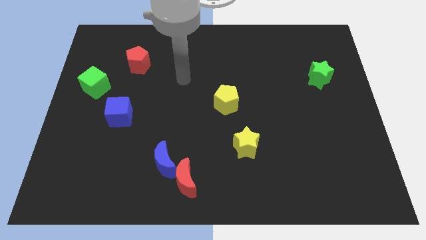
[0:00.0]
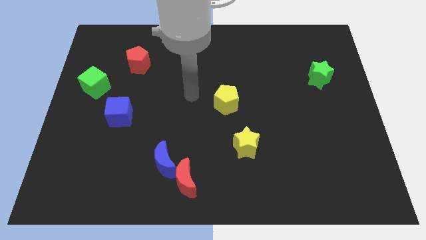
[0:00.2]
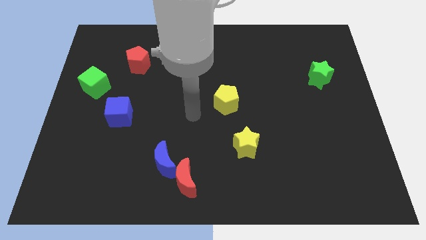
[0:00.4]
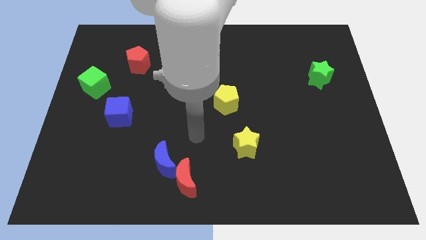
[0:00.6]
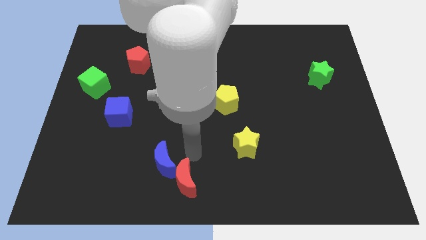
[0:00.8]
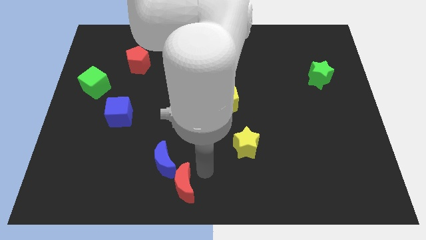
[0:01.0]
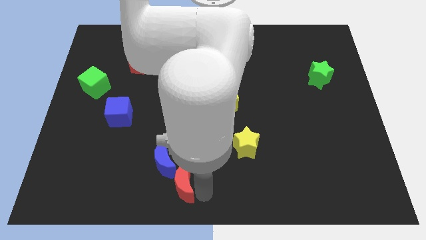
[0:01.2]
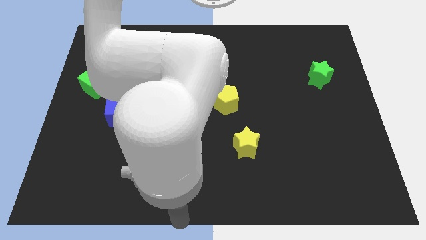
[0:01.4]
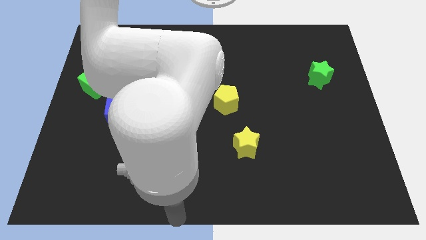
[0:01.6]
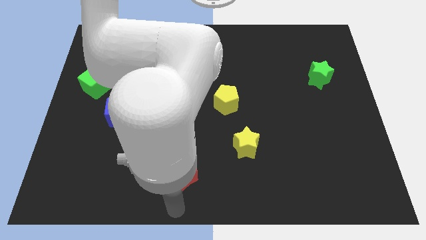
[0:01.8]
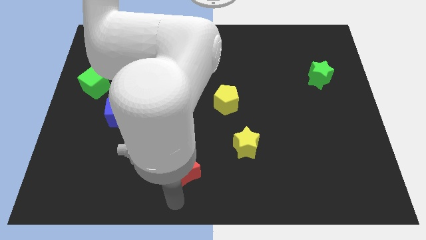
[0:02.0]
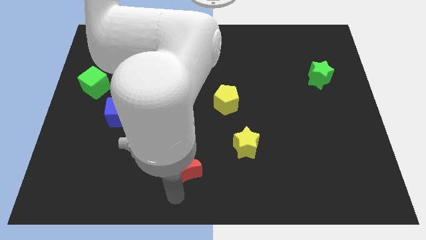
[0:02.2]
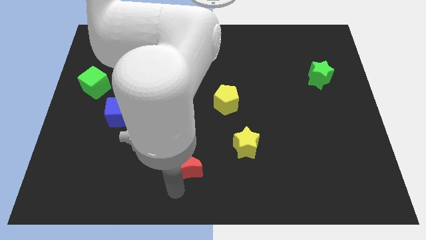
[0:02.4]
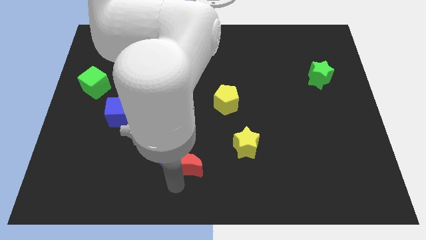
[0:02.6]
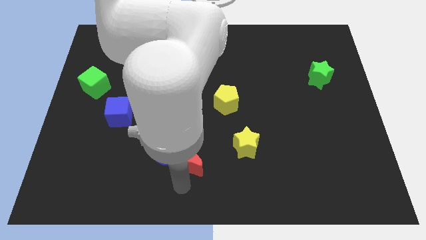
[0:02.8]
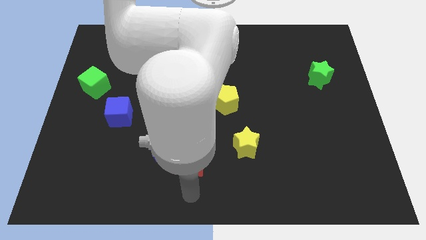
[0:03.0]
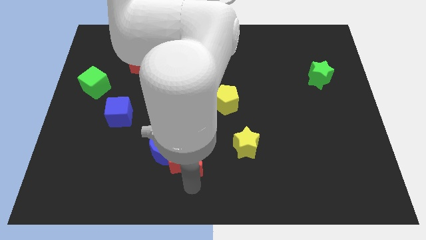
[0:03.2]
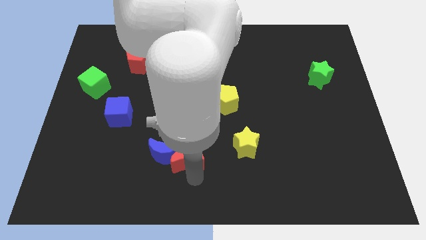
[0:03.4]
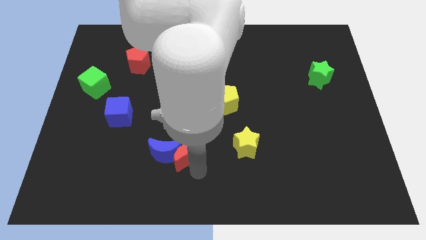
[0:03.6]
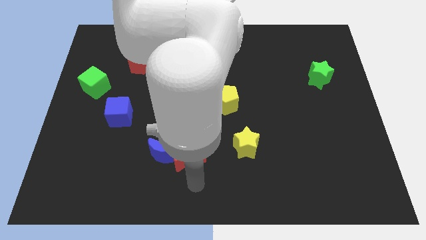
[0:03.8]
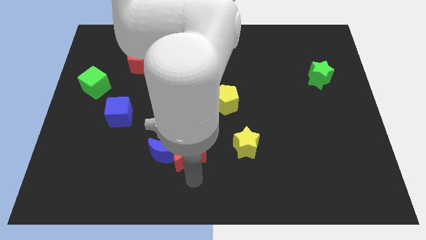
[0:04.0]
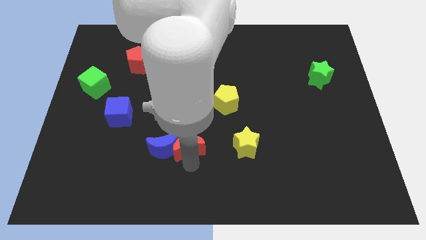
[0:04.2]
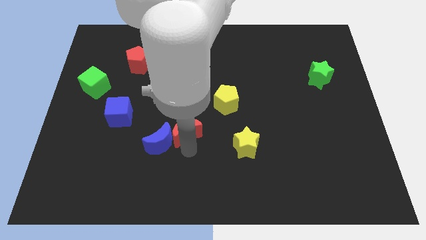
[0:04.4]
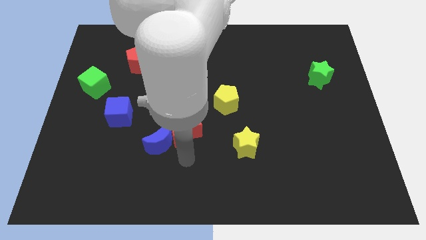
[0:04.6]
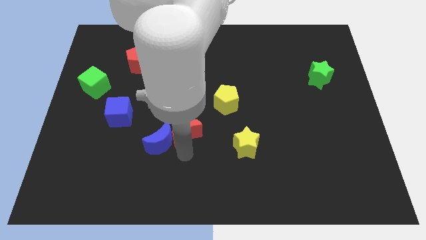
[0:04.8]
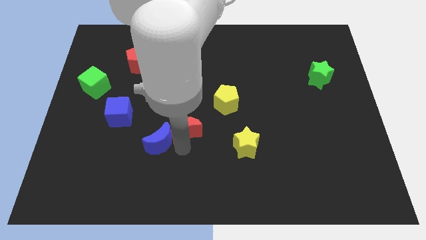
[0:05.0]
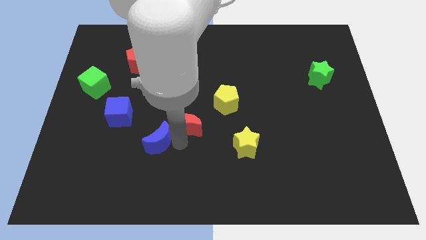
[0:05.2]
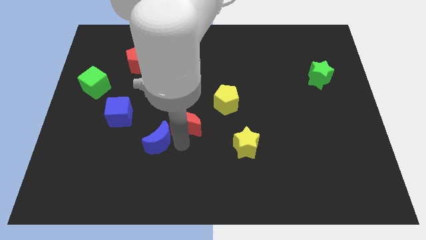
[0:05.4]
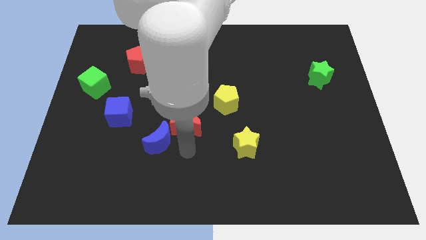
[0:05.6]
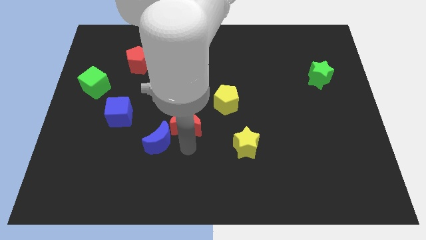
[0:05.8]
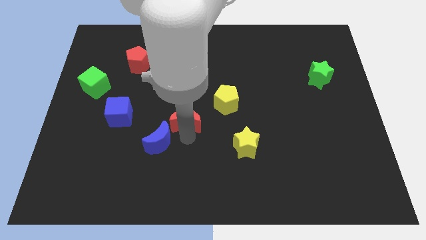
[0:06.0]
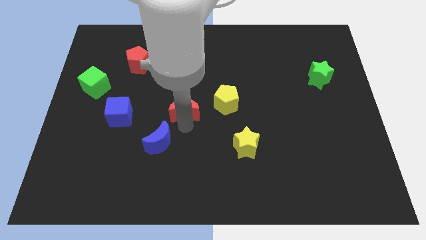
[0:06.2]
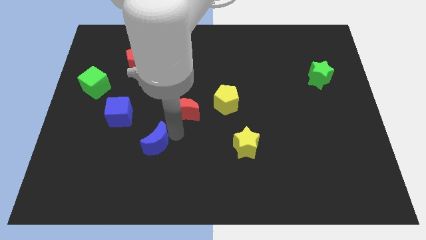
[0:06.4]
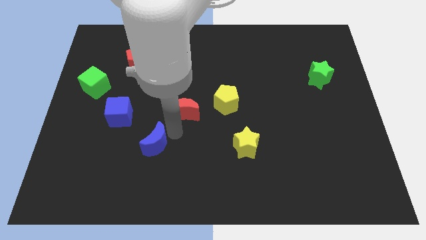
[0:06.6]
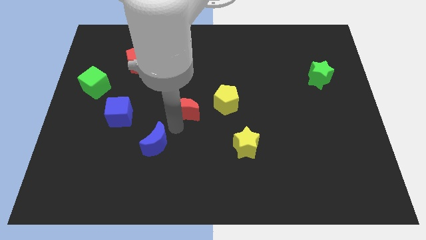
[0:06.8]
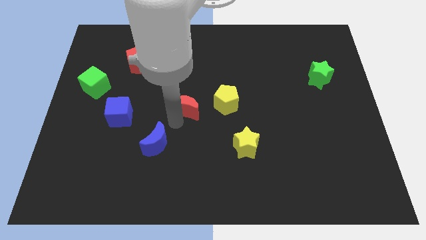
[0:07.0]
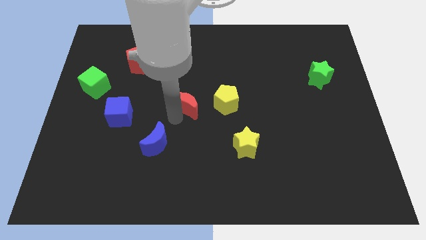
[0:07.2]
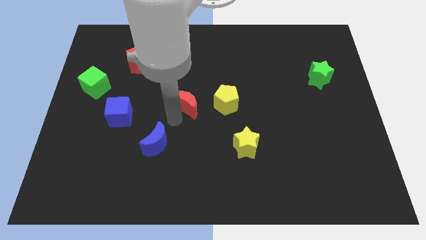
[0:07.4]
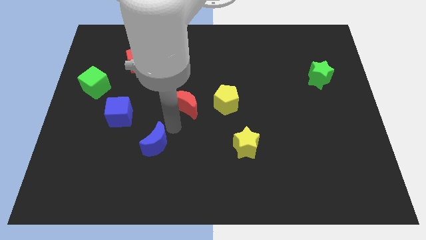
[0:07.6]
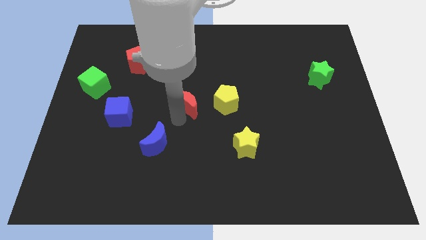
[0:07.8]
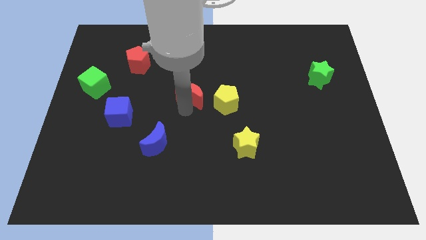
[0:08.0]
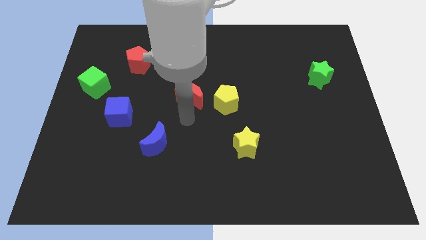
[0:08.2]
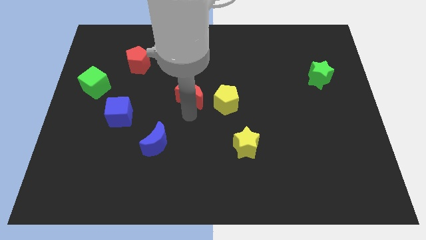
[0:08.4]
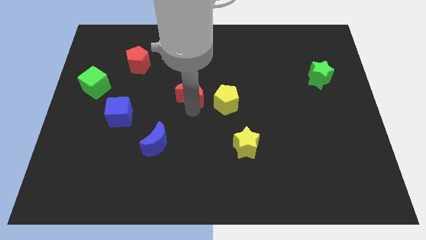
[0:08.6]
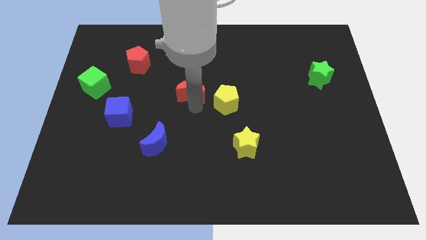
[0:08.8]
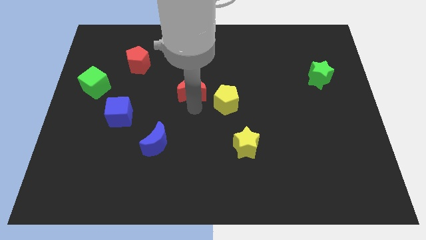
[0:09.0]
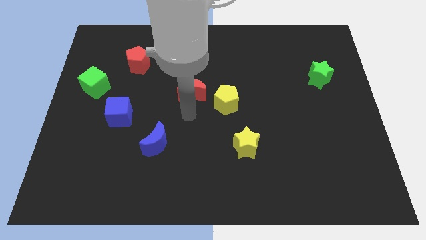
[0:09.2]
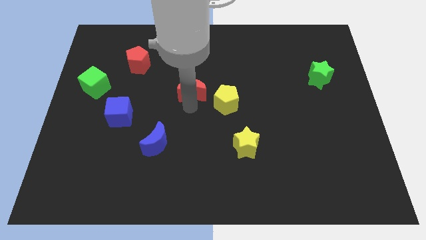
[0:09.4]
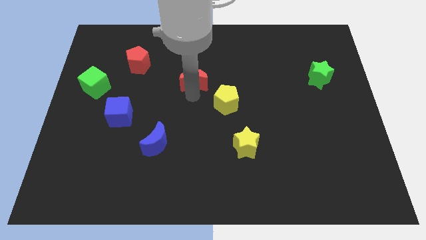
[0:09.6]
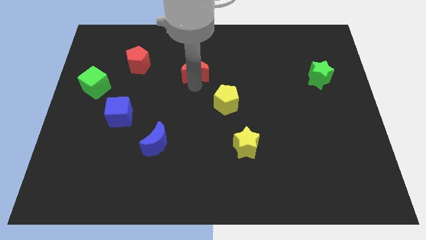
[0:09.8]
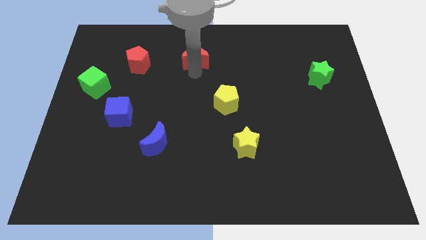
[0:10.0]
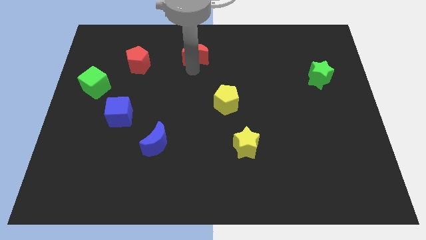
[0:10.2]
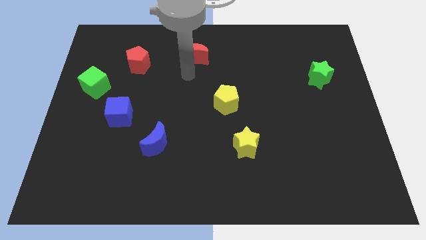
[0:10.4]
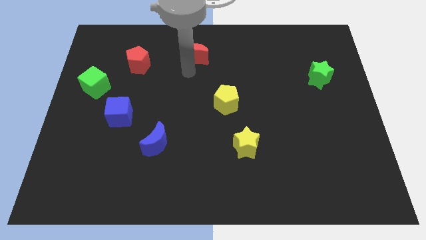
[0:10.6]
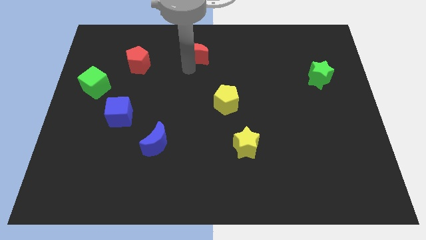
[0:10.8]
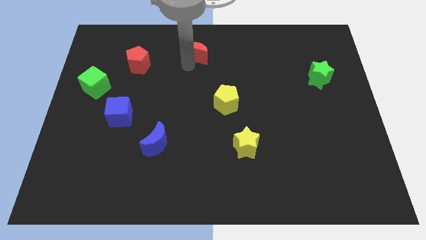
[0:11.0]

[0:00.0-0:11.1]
push the red moon to the towards your base

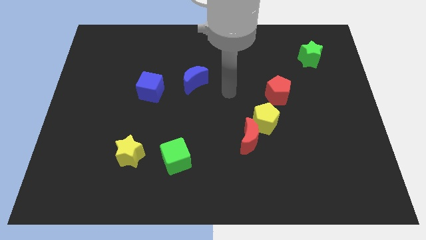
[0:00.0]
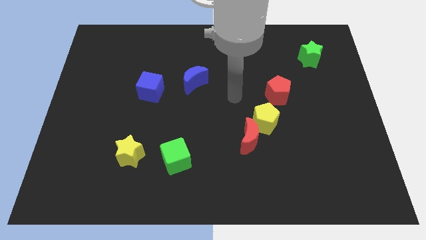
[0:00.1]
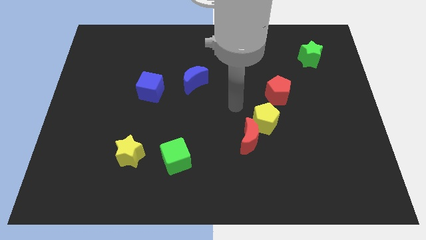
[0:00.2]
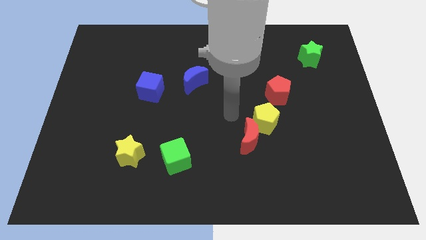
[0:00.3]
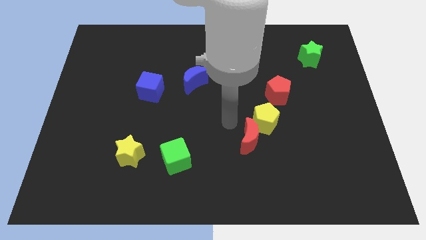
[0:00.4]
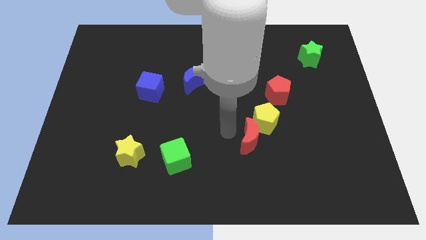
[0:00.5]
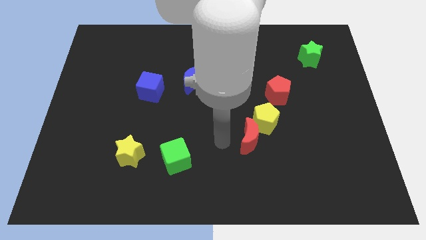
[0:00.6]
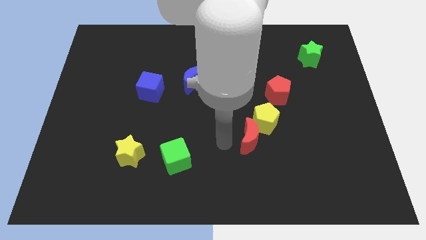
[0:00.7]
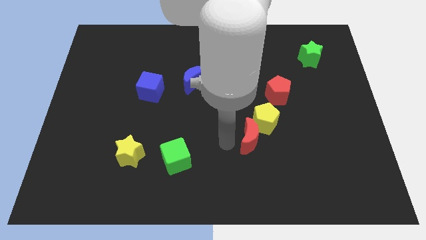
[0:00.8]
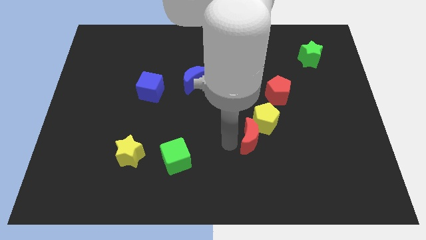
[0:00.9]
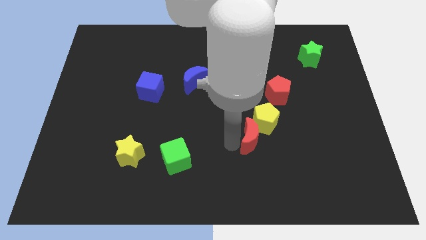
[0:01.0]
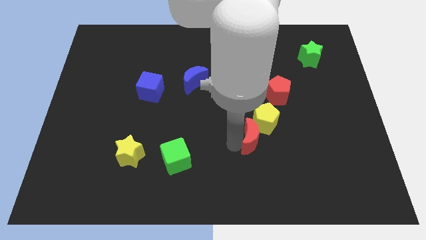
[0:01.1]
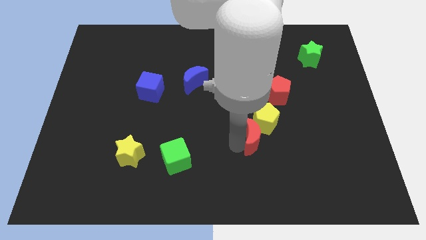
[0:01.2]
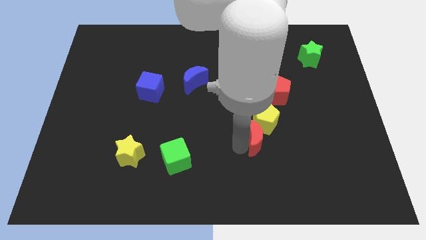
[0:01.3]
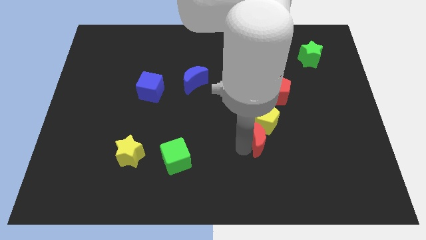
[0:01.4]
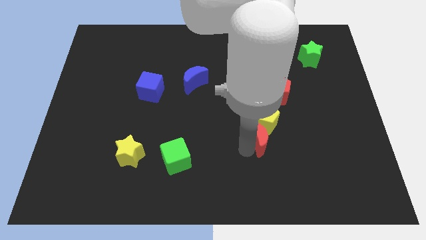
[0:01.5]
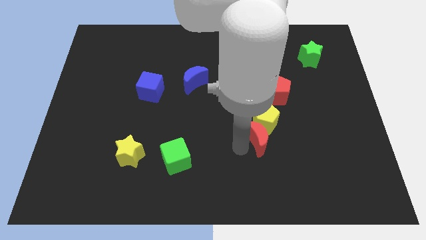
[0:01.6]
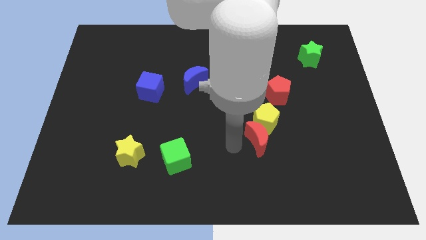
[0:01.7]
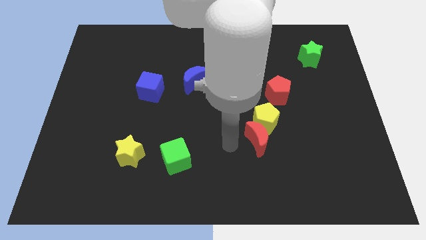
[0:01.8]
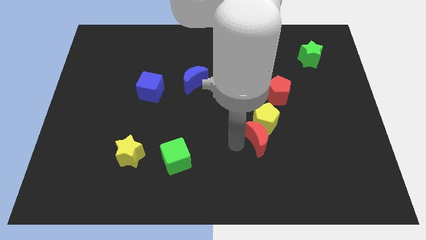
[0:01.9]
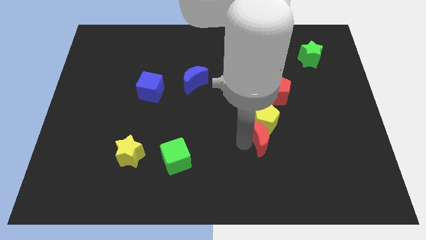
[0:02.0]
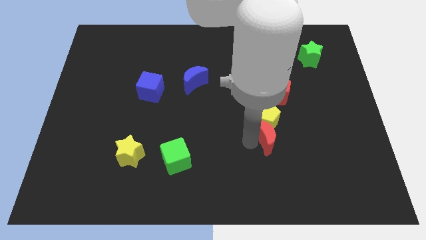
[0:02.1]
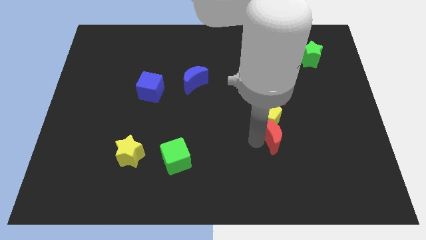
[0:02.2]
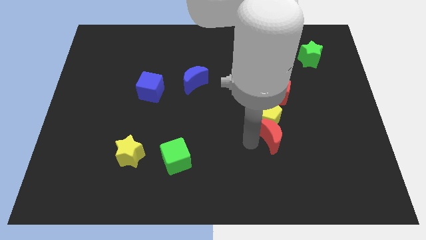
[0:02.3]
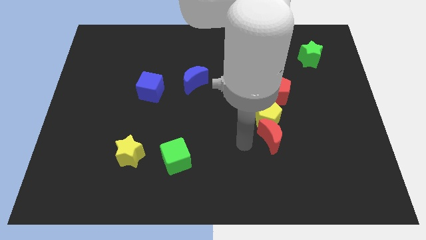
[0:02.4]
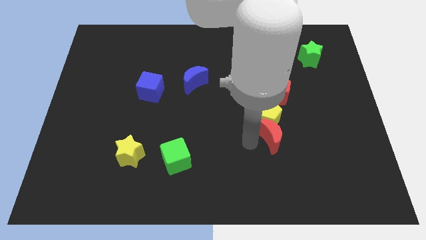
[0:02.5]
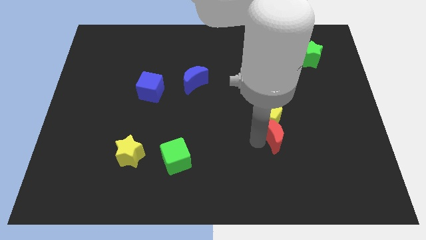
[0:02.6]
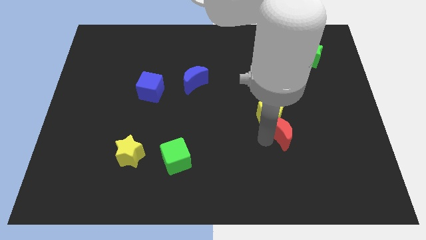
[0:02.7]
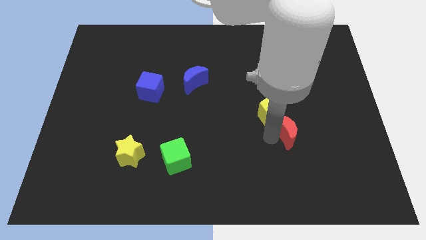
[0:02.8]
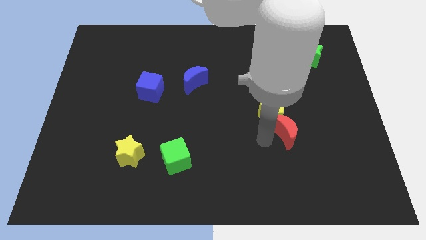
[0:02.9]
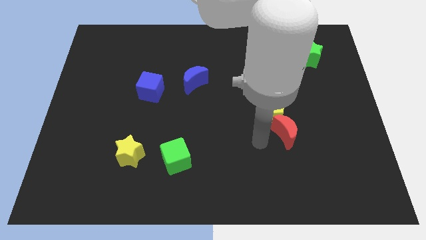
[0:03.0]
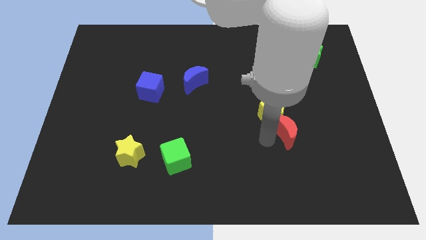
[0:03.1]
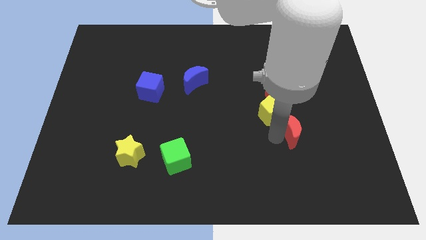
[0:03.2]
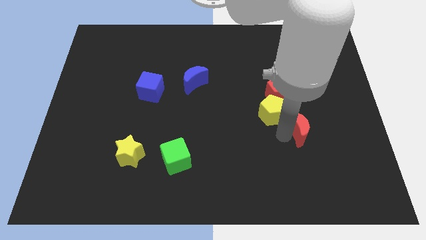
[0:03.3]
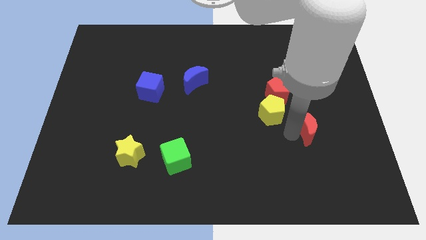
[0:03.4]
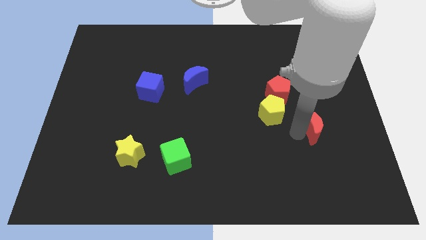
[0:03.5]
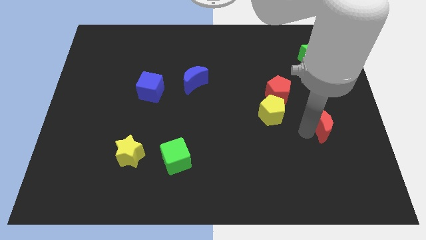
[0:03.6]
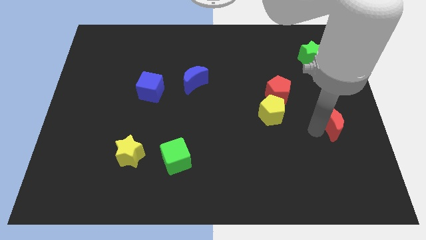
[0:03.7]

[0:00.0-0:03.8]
push the red moon to the right side of the board
